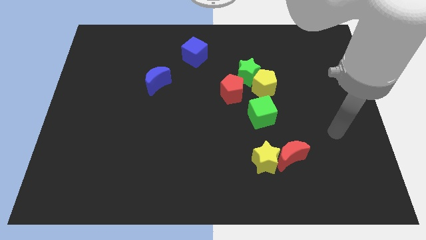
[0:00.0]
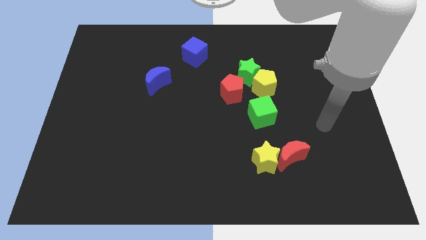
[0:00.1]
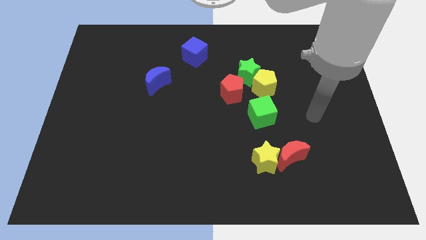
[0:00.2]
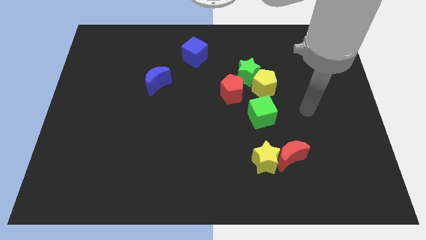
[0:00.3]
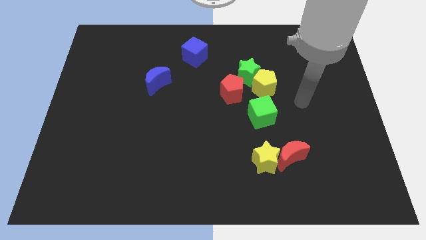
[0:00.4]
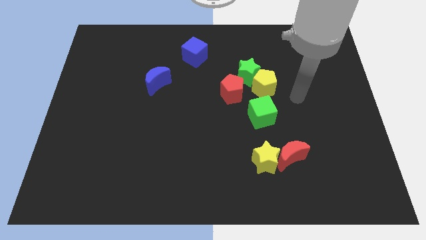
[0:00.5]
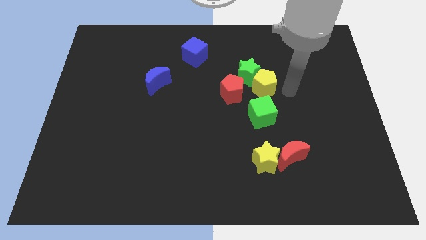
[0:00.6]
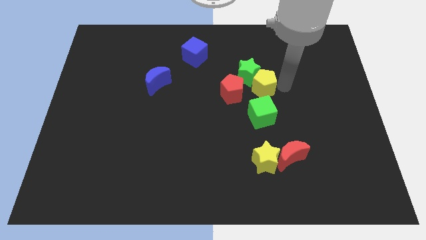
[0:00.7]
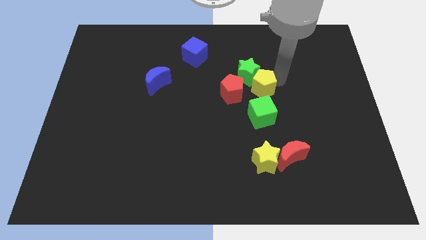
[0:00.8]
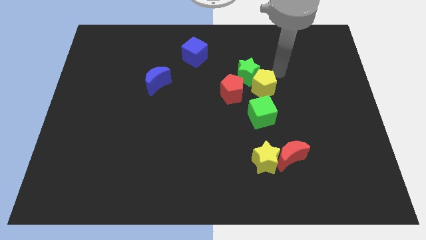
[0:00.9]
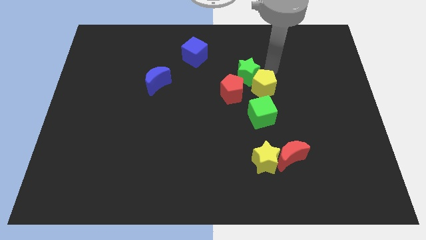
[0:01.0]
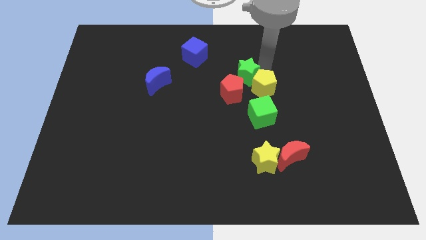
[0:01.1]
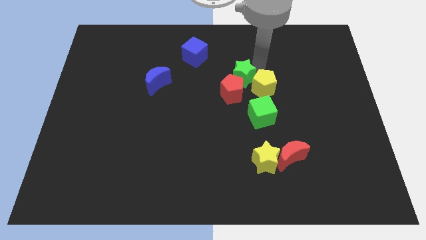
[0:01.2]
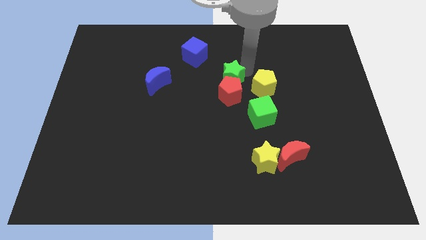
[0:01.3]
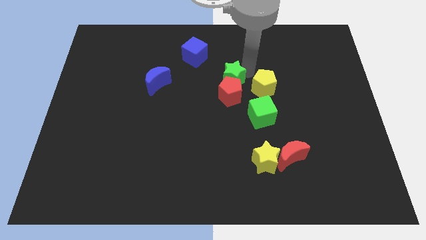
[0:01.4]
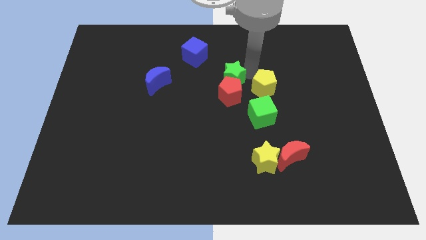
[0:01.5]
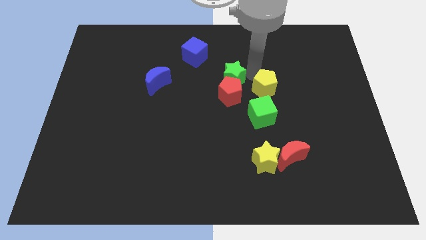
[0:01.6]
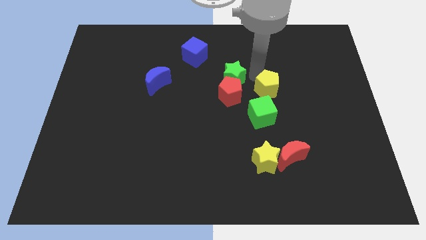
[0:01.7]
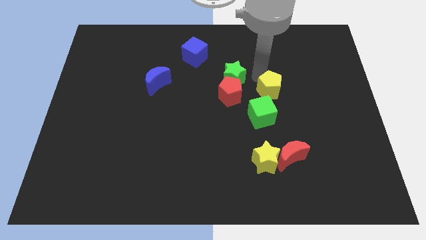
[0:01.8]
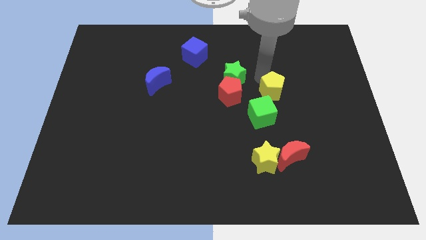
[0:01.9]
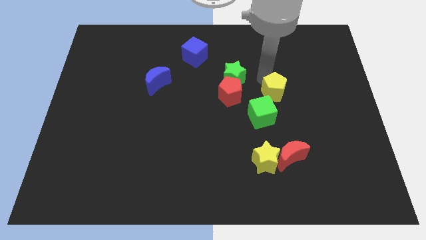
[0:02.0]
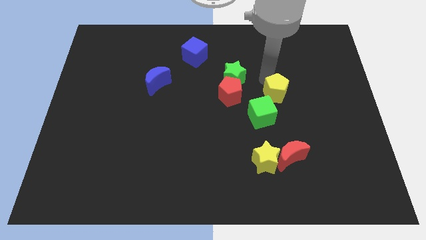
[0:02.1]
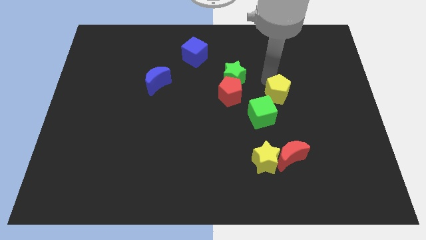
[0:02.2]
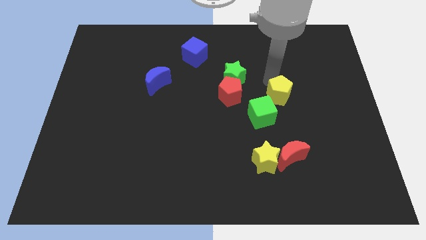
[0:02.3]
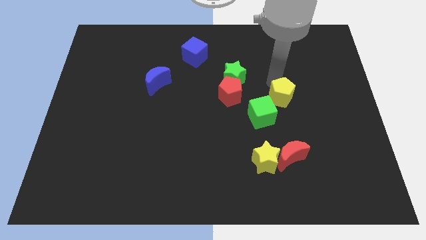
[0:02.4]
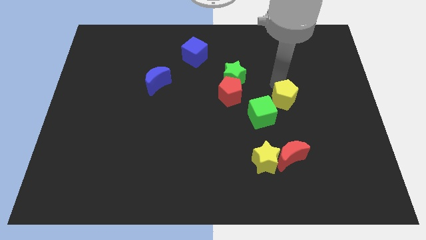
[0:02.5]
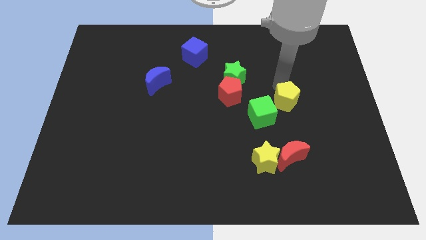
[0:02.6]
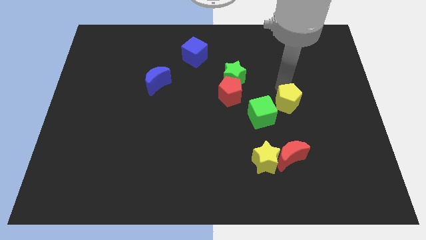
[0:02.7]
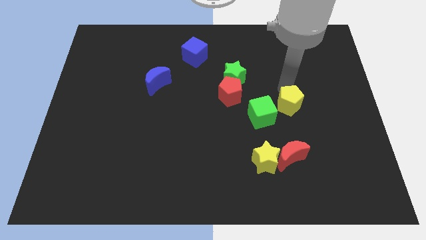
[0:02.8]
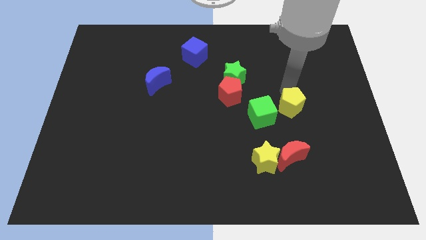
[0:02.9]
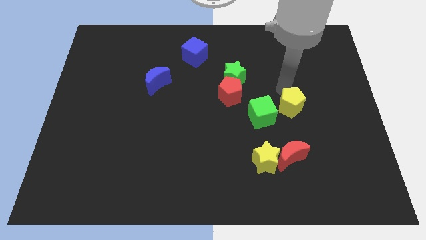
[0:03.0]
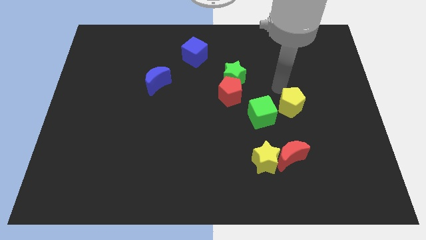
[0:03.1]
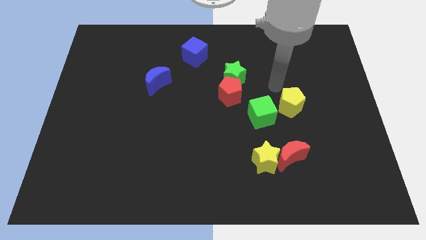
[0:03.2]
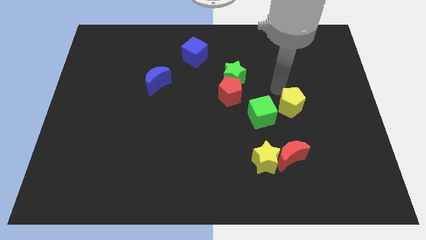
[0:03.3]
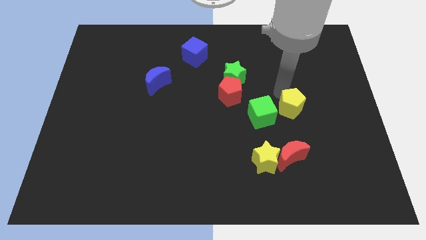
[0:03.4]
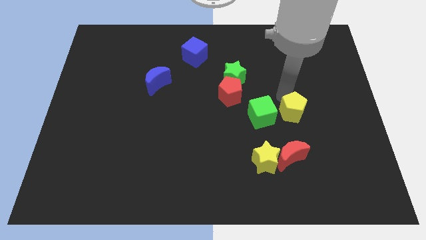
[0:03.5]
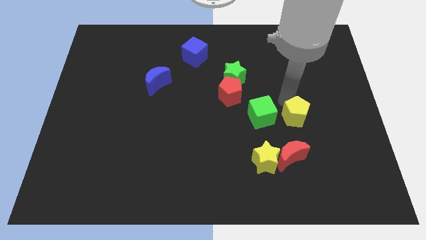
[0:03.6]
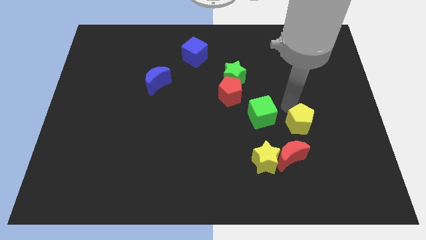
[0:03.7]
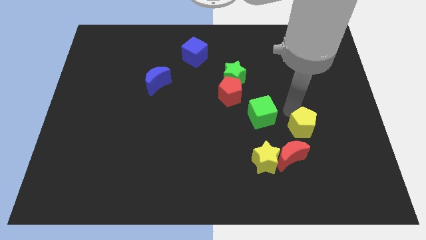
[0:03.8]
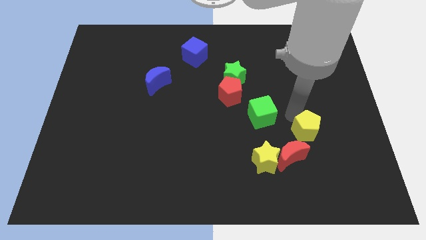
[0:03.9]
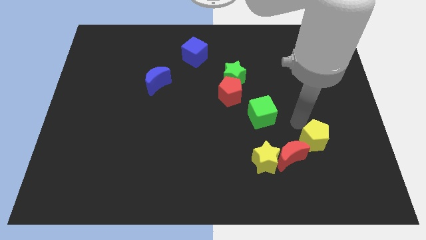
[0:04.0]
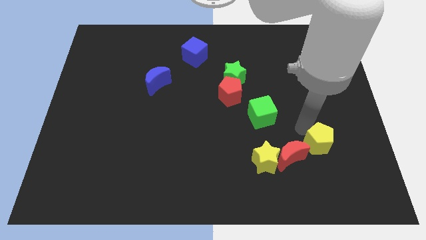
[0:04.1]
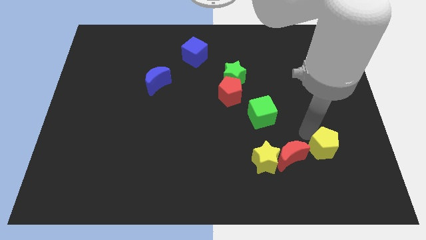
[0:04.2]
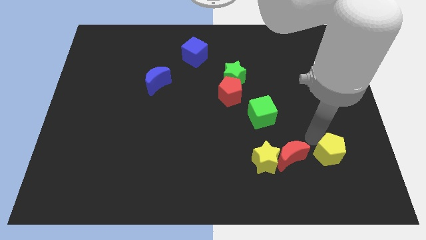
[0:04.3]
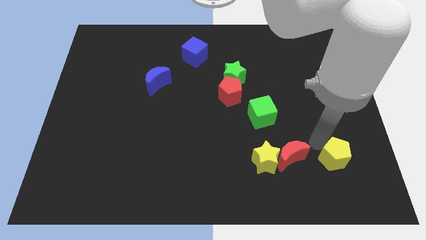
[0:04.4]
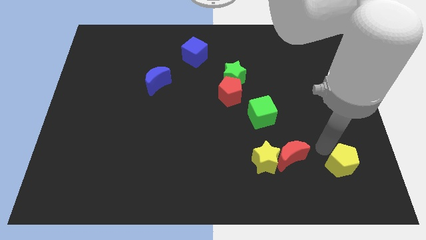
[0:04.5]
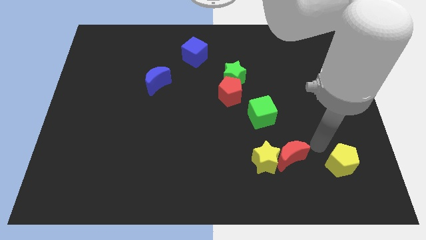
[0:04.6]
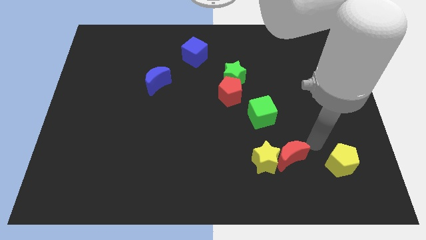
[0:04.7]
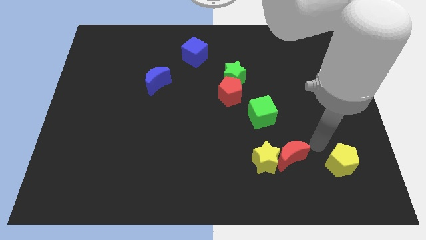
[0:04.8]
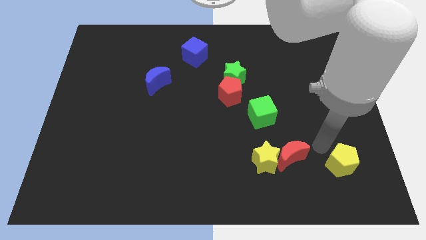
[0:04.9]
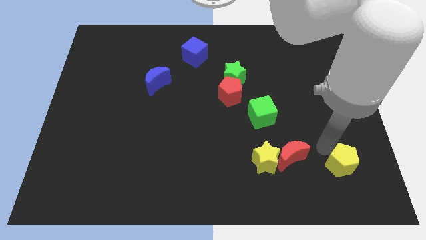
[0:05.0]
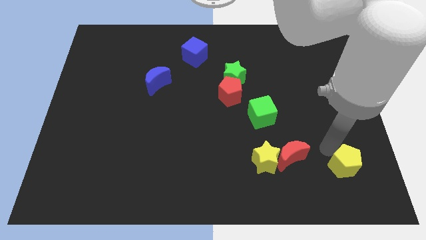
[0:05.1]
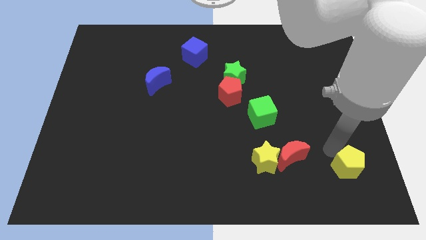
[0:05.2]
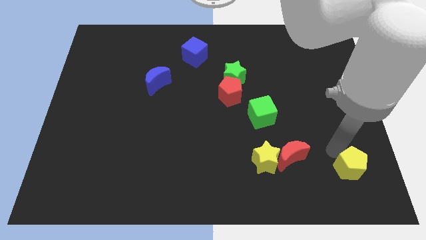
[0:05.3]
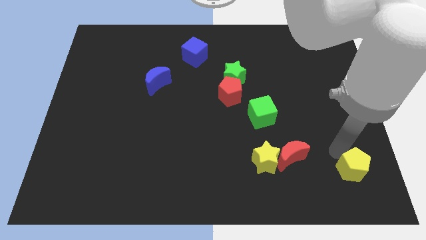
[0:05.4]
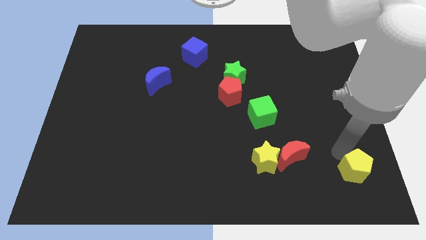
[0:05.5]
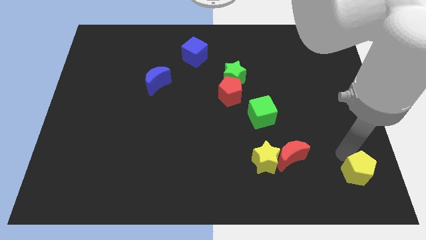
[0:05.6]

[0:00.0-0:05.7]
slide the yellow pentagon to the bottom right corner

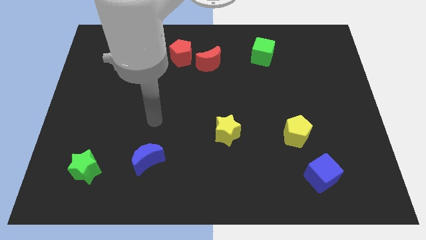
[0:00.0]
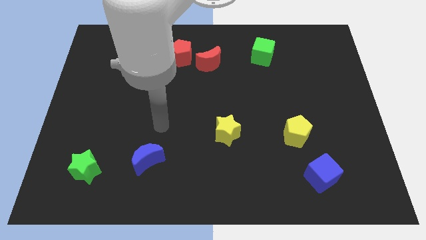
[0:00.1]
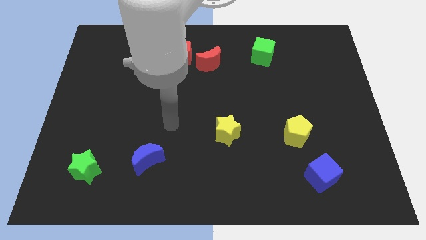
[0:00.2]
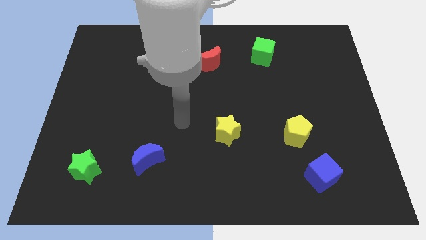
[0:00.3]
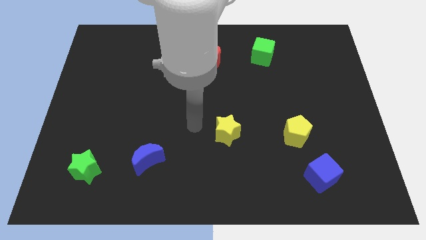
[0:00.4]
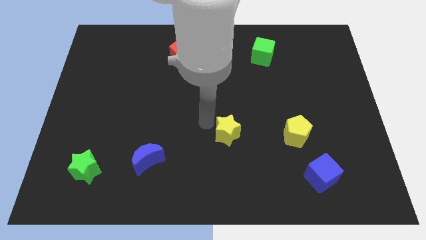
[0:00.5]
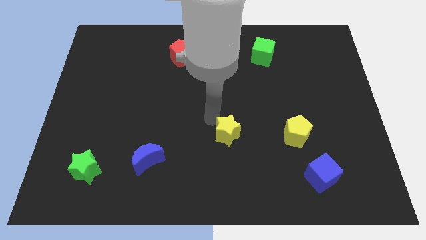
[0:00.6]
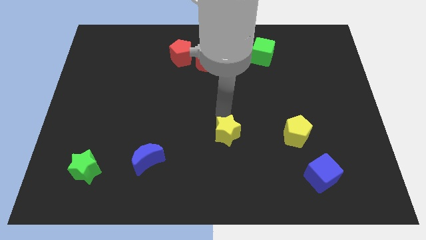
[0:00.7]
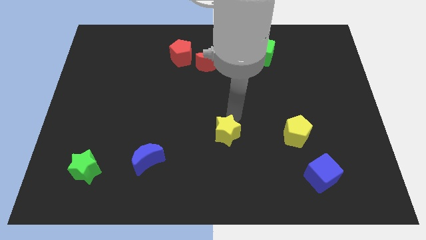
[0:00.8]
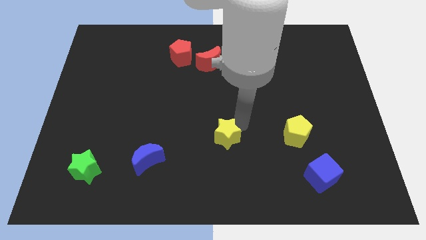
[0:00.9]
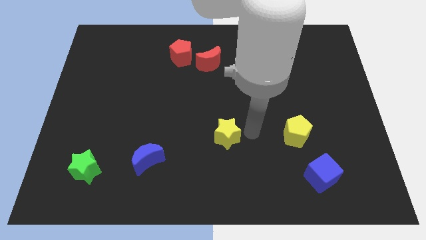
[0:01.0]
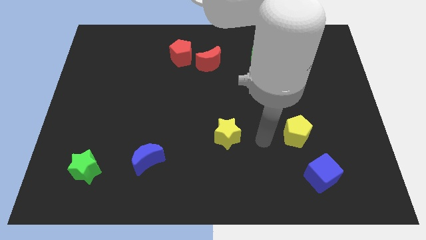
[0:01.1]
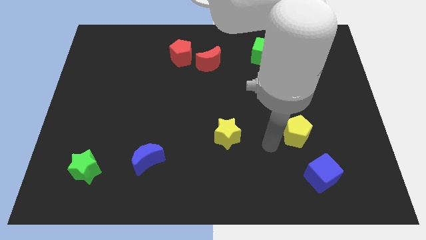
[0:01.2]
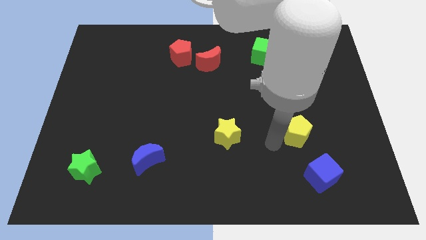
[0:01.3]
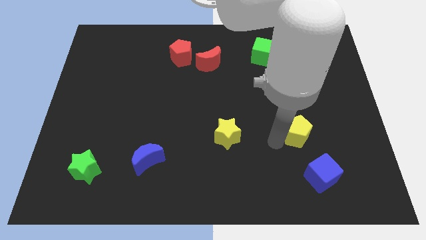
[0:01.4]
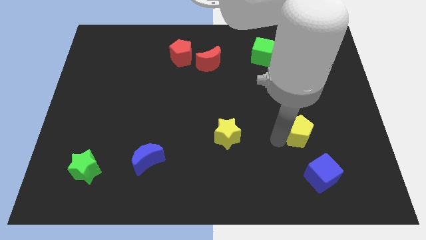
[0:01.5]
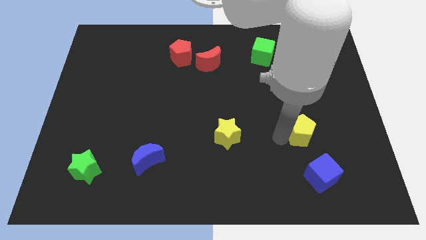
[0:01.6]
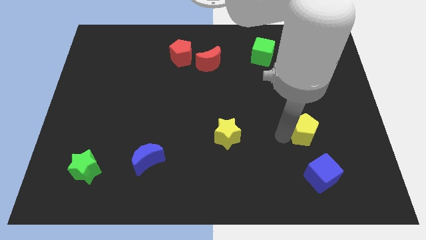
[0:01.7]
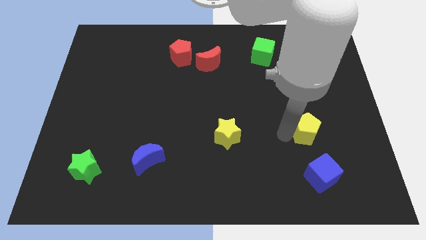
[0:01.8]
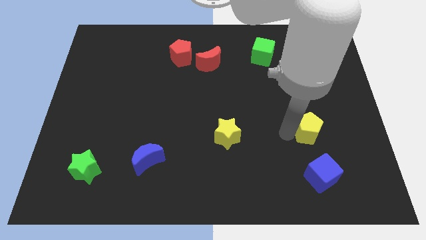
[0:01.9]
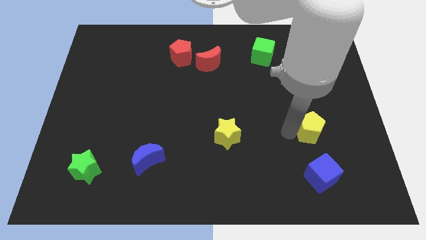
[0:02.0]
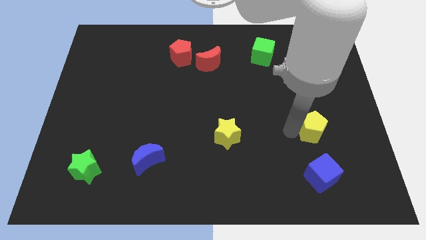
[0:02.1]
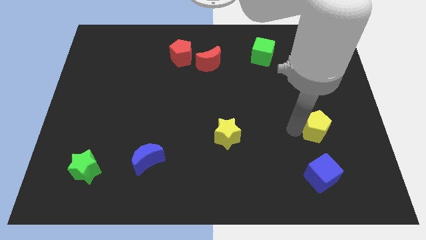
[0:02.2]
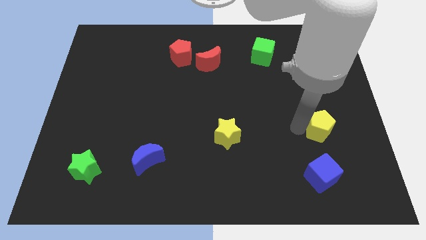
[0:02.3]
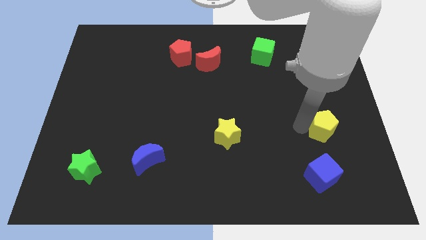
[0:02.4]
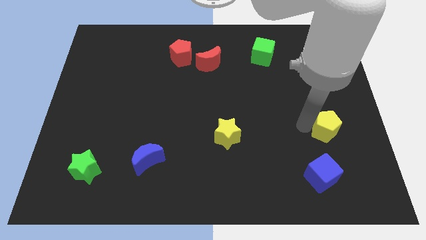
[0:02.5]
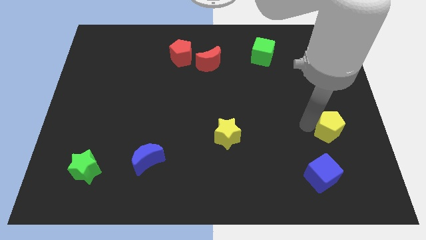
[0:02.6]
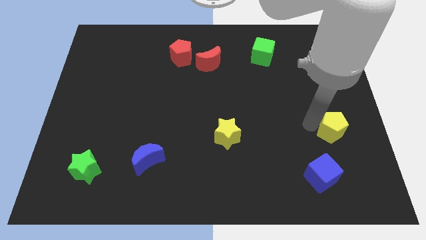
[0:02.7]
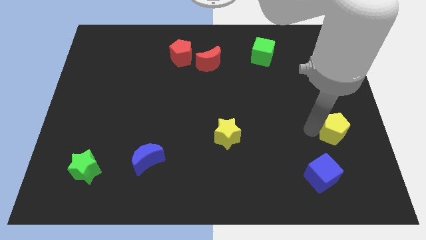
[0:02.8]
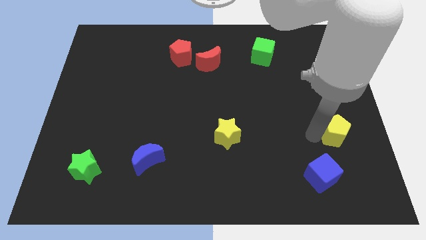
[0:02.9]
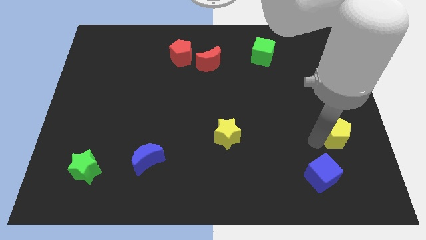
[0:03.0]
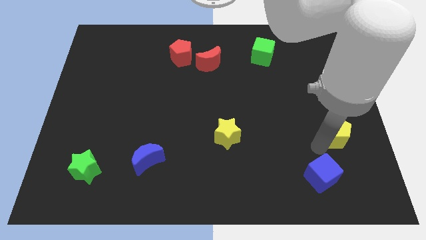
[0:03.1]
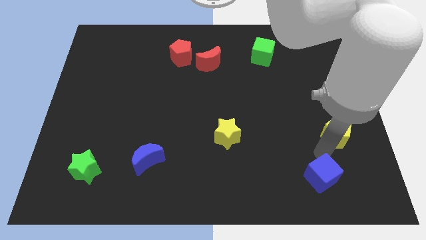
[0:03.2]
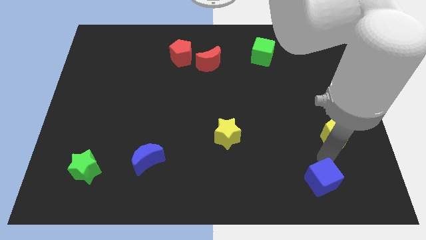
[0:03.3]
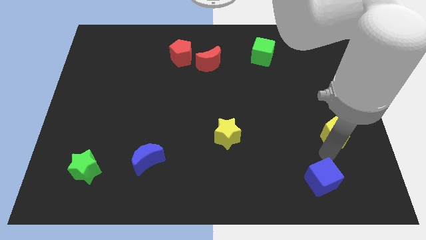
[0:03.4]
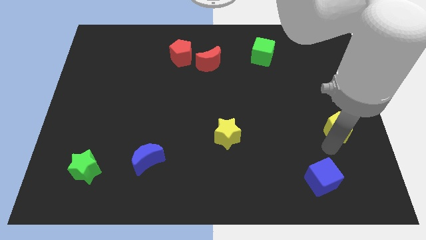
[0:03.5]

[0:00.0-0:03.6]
push the yellow pentagon to the right side of the board
